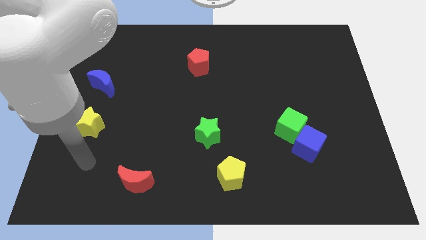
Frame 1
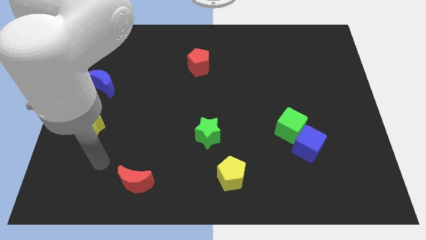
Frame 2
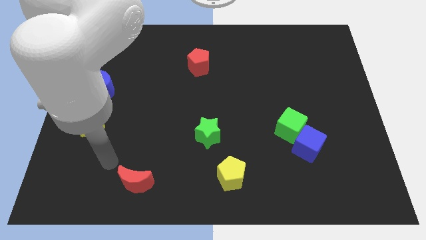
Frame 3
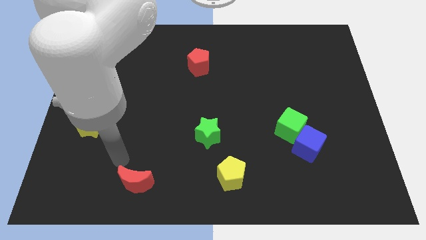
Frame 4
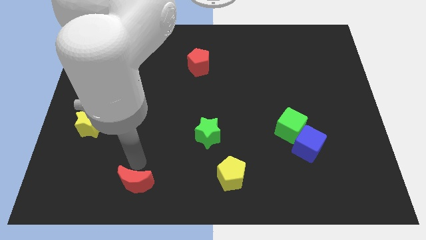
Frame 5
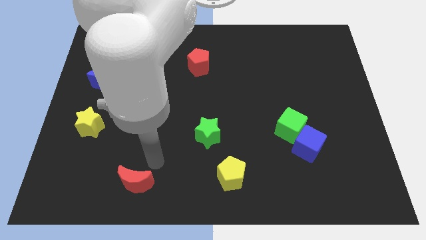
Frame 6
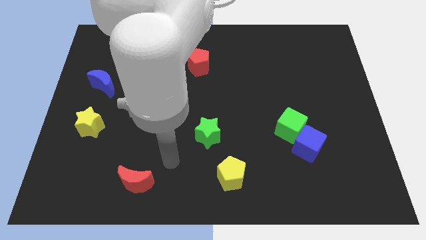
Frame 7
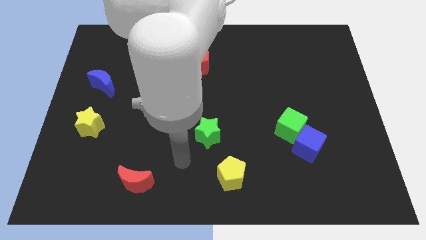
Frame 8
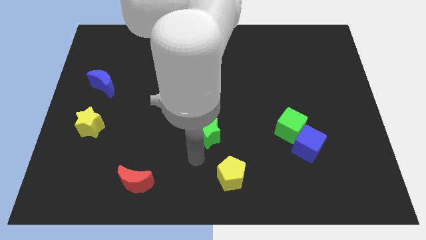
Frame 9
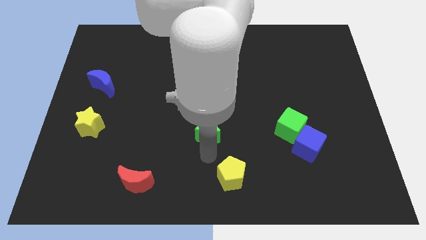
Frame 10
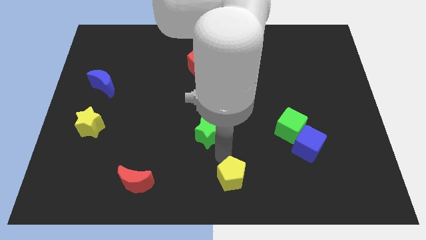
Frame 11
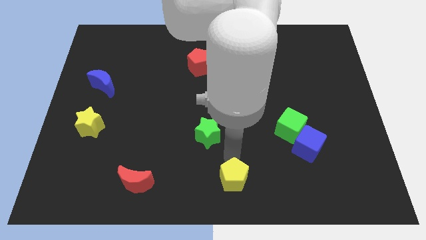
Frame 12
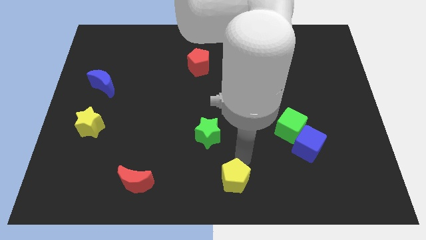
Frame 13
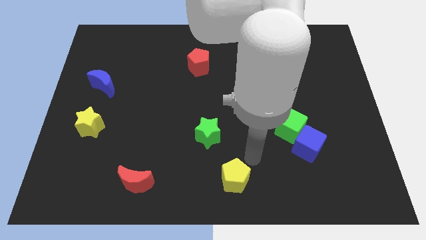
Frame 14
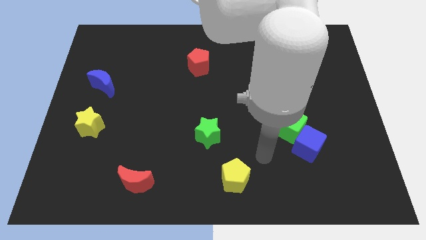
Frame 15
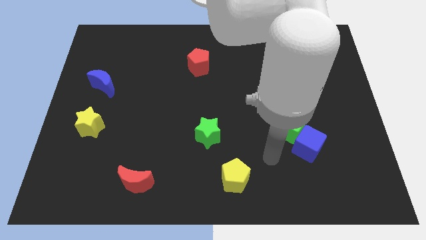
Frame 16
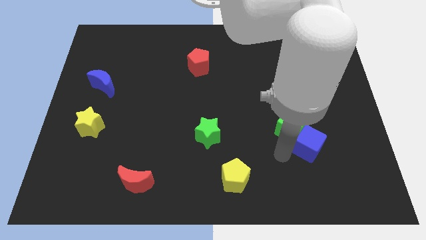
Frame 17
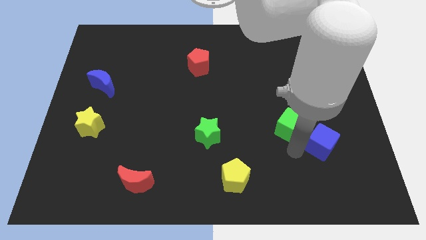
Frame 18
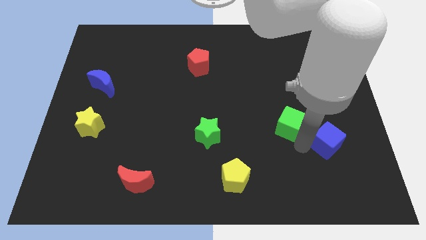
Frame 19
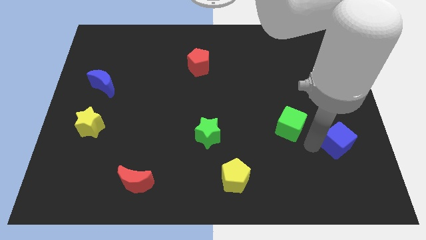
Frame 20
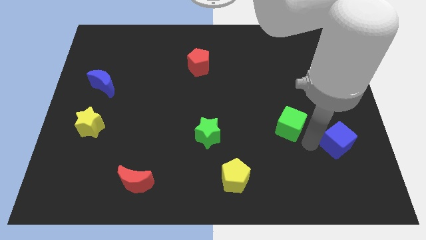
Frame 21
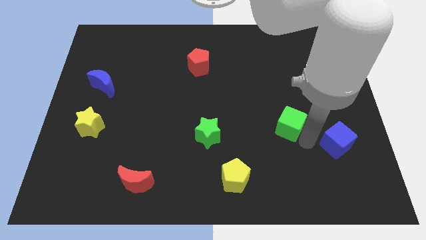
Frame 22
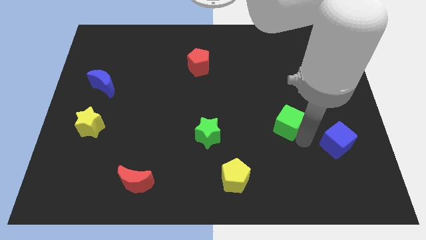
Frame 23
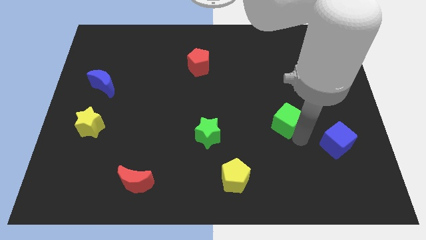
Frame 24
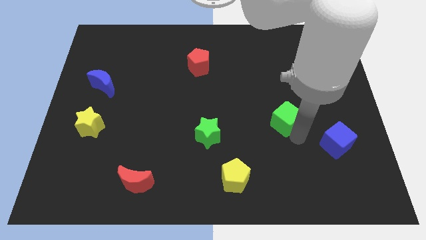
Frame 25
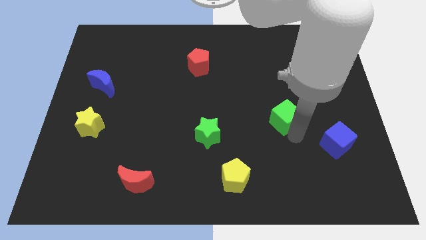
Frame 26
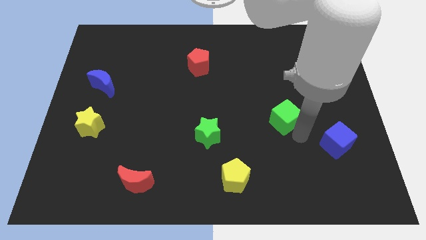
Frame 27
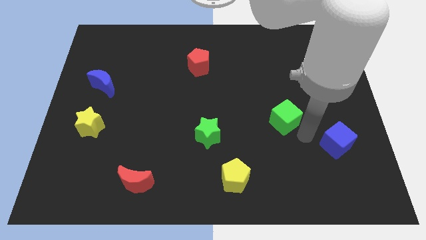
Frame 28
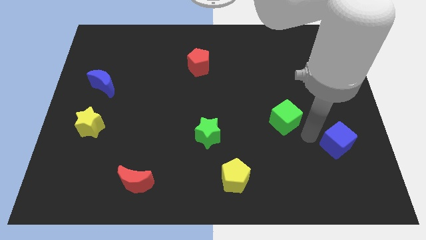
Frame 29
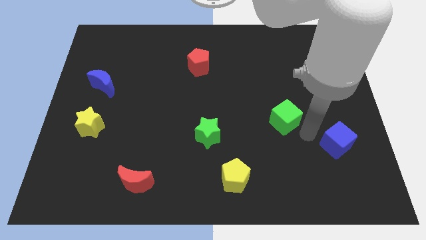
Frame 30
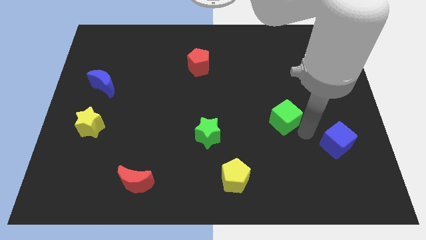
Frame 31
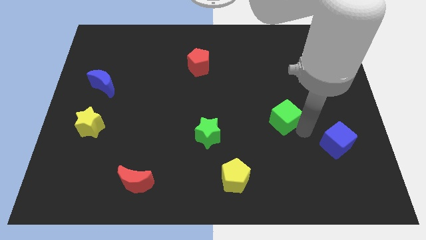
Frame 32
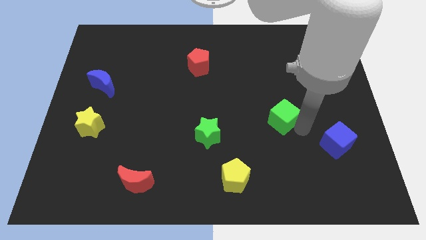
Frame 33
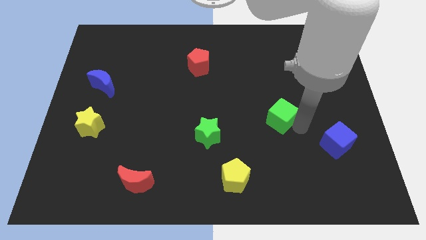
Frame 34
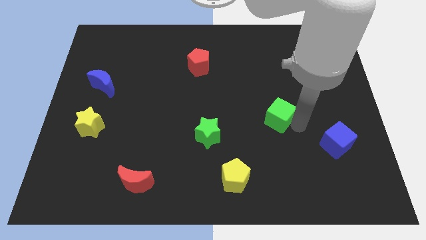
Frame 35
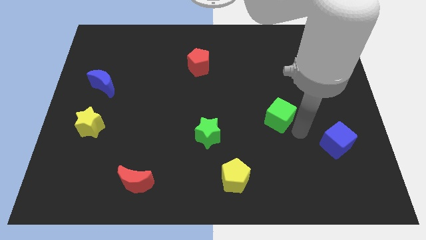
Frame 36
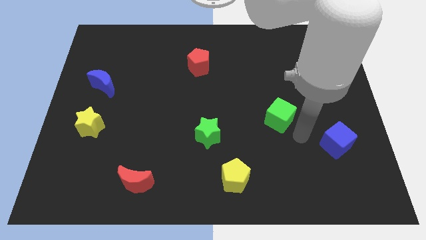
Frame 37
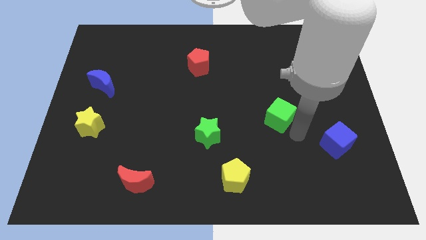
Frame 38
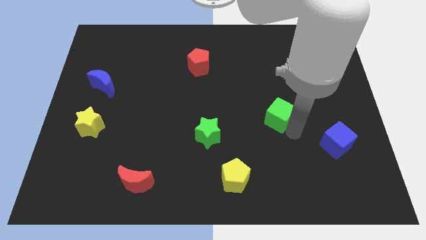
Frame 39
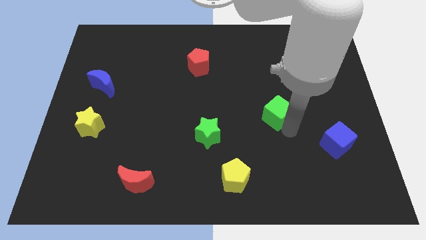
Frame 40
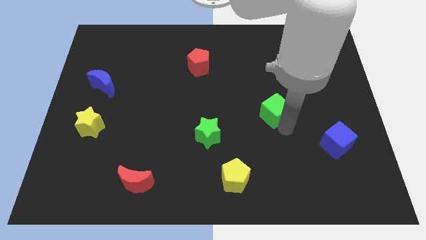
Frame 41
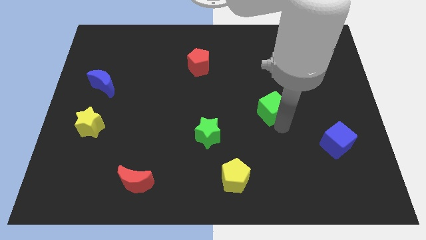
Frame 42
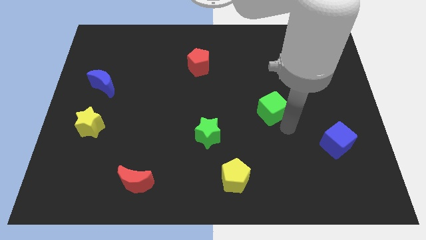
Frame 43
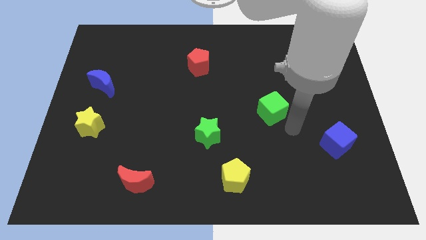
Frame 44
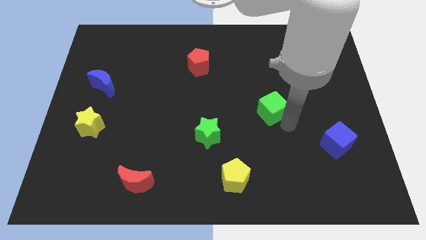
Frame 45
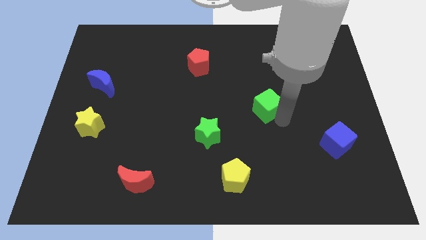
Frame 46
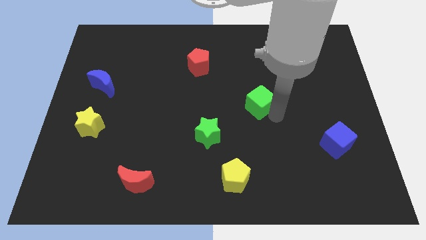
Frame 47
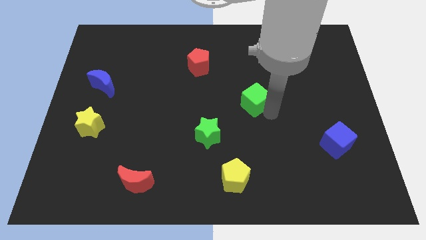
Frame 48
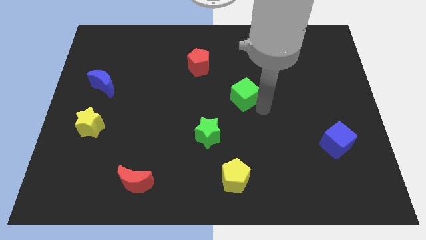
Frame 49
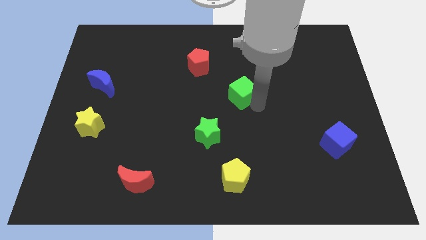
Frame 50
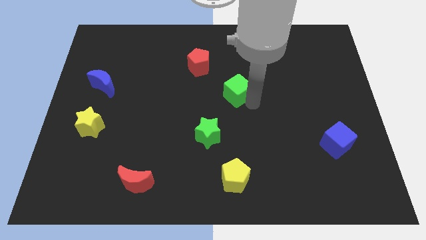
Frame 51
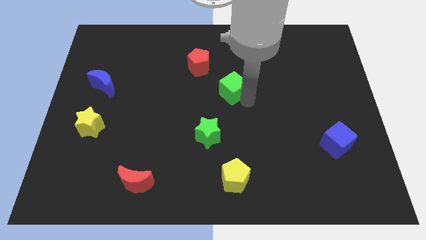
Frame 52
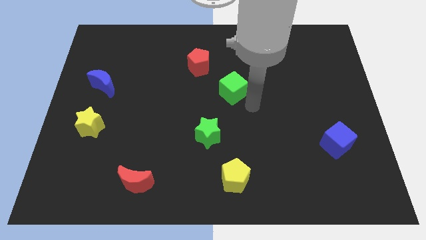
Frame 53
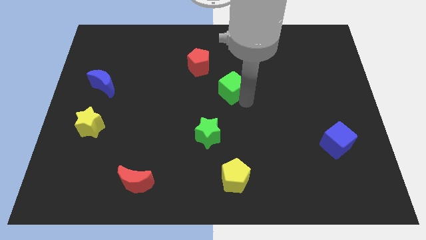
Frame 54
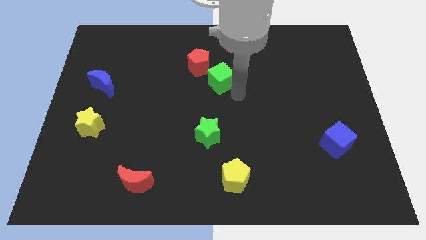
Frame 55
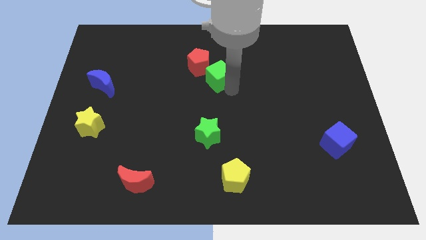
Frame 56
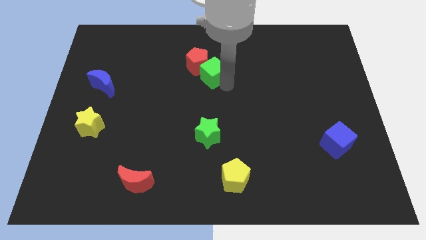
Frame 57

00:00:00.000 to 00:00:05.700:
slide the green cube towards the red pentagon

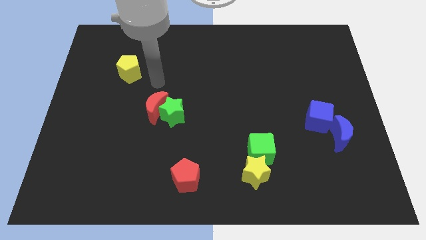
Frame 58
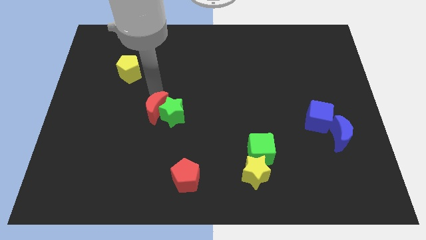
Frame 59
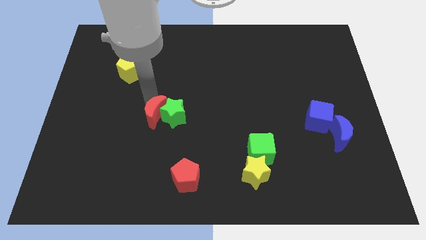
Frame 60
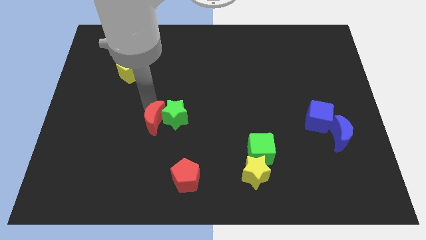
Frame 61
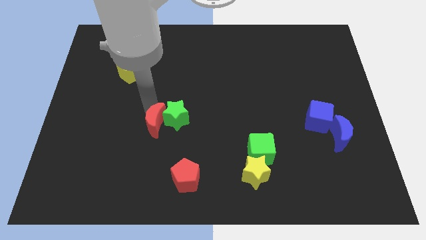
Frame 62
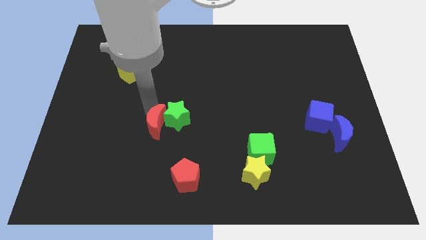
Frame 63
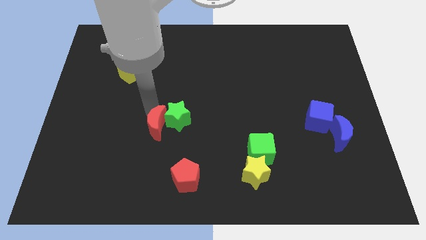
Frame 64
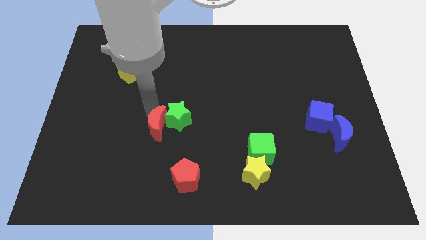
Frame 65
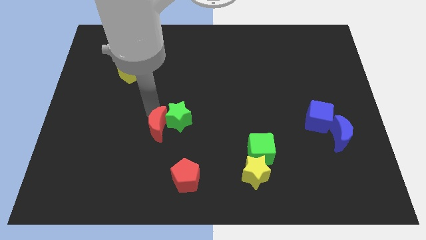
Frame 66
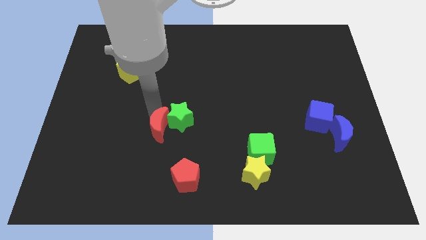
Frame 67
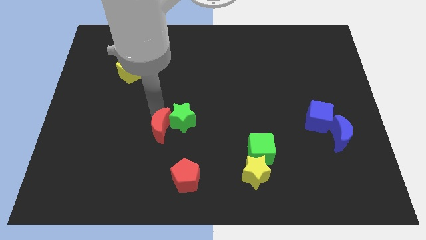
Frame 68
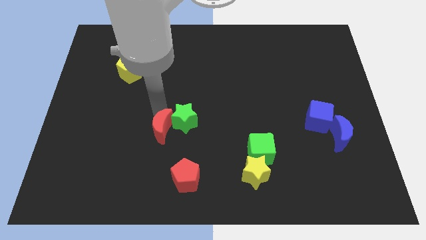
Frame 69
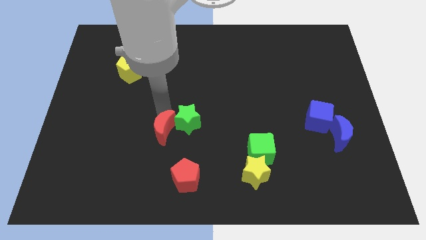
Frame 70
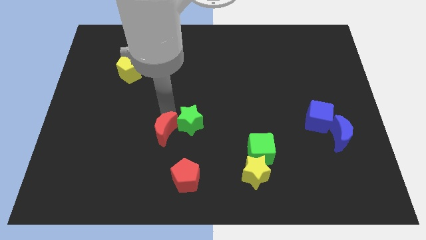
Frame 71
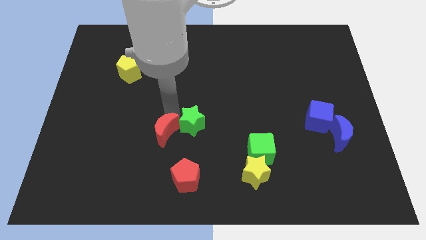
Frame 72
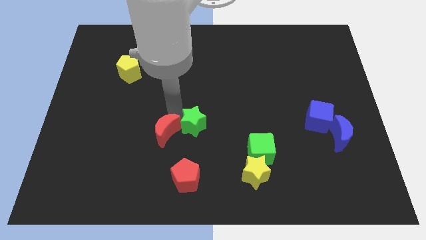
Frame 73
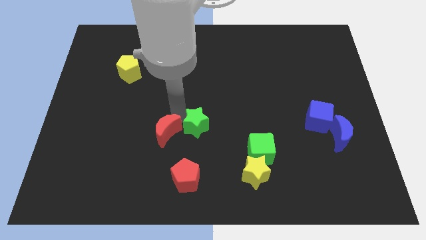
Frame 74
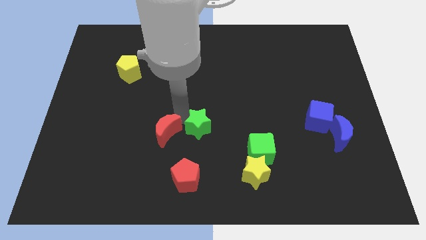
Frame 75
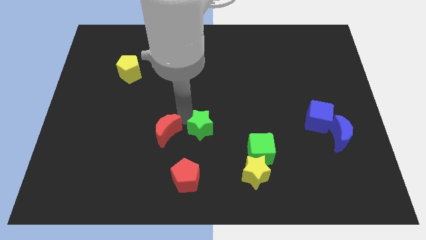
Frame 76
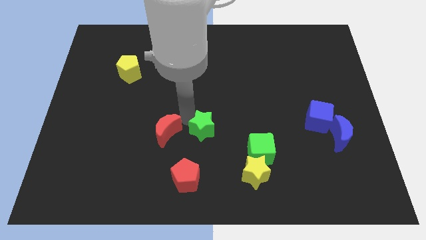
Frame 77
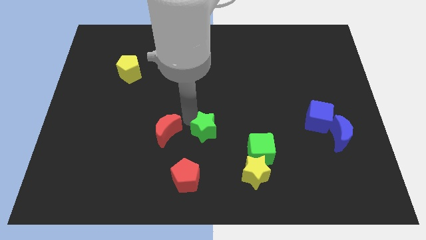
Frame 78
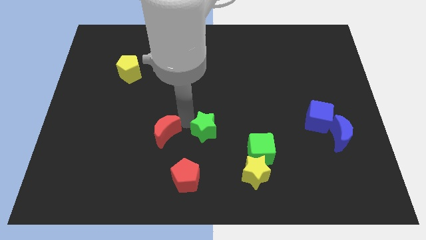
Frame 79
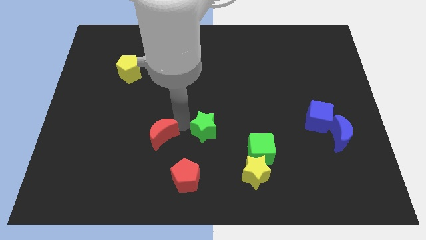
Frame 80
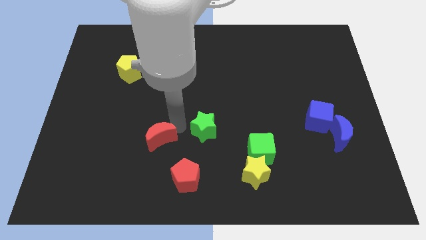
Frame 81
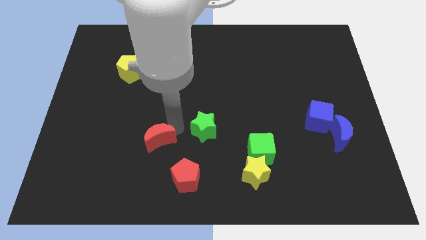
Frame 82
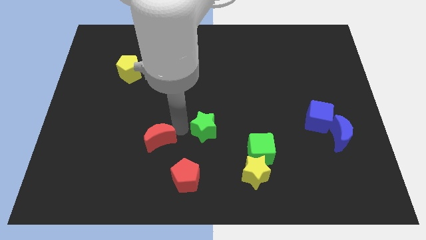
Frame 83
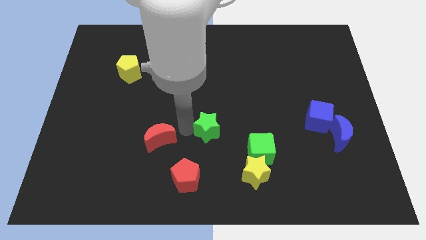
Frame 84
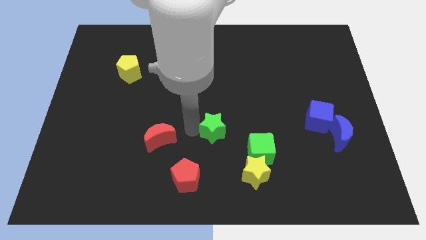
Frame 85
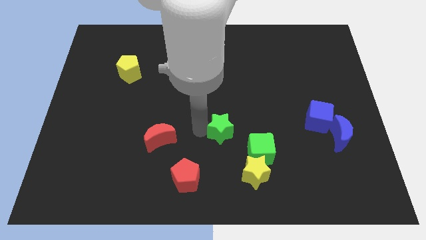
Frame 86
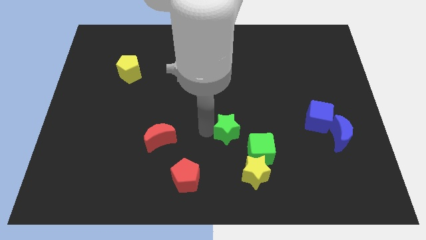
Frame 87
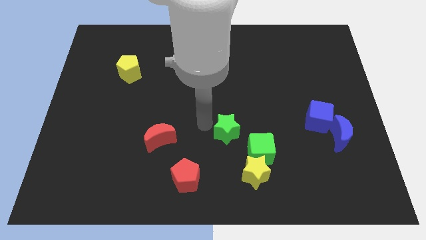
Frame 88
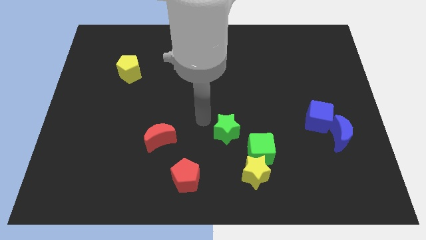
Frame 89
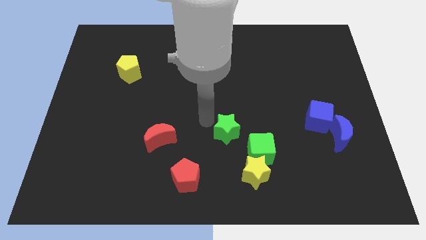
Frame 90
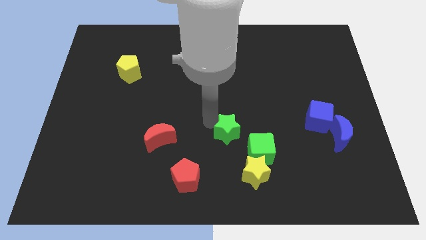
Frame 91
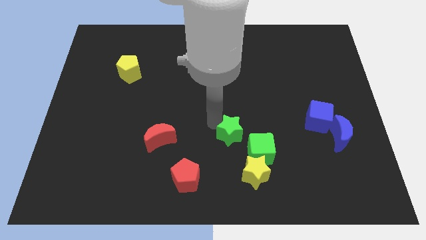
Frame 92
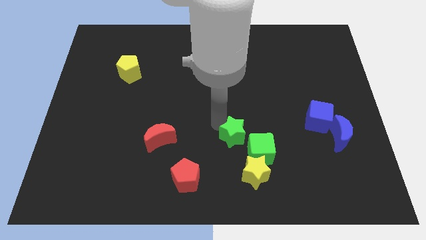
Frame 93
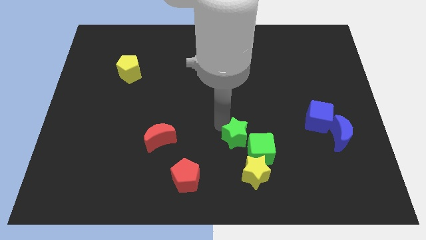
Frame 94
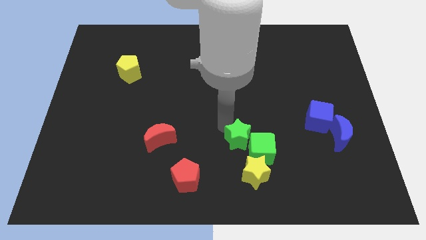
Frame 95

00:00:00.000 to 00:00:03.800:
slide the green star close to the green cube
